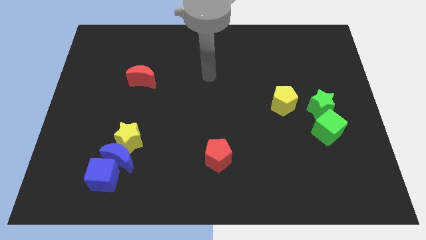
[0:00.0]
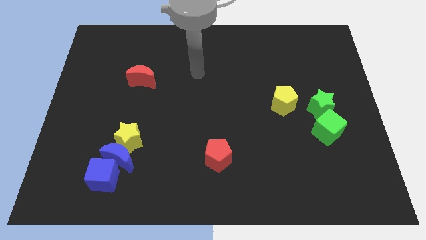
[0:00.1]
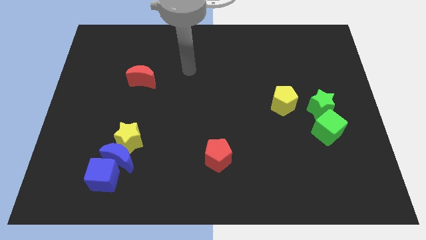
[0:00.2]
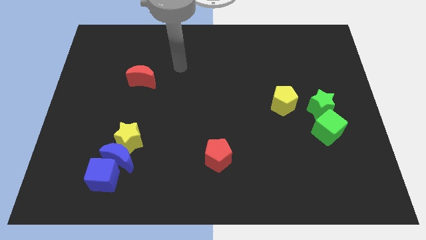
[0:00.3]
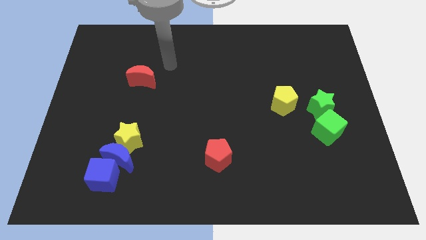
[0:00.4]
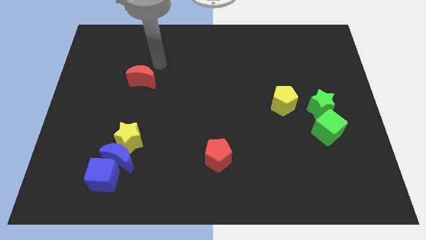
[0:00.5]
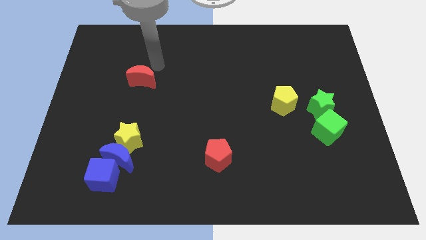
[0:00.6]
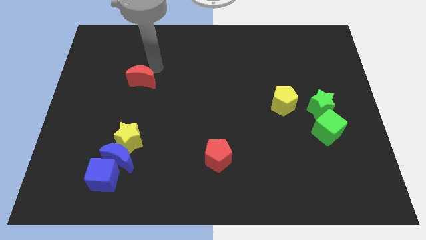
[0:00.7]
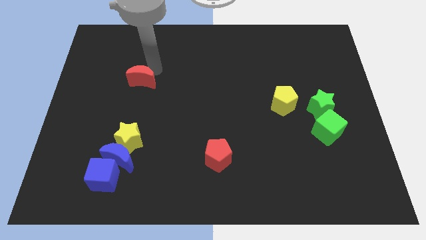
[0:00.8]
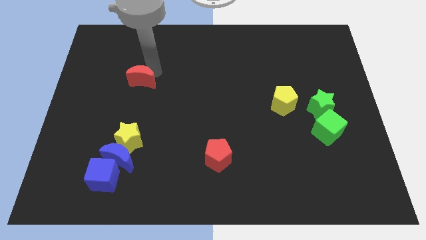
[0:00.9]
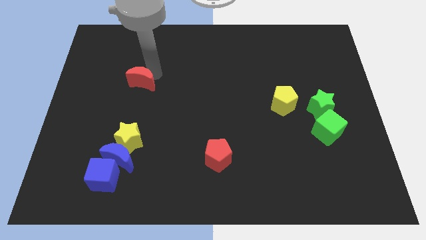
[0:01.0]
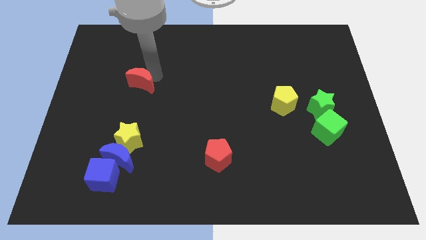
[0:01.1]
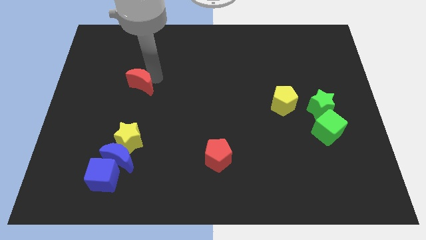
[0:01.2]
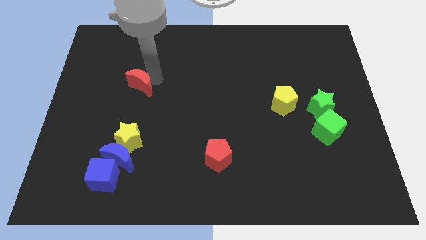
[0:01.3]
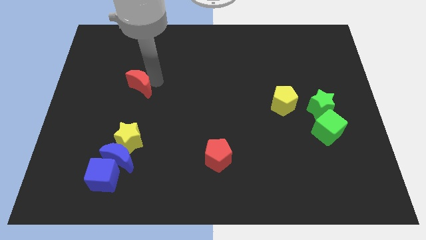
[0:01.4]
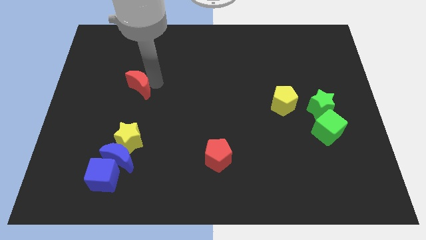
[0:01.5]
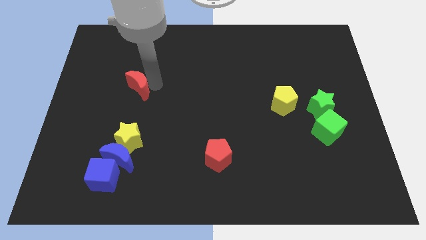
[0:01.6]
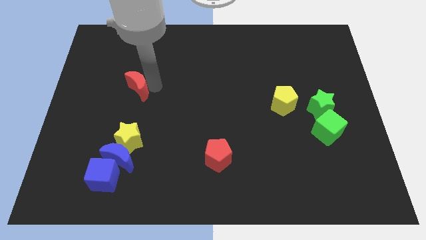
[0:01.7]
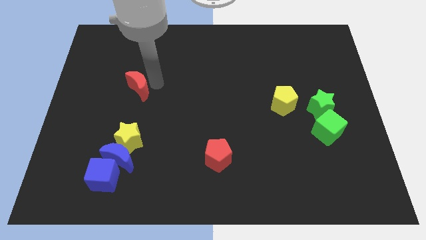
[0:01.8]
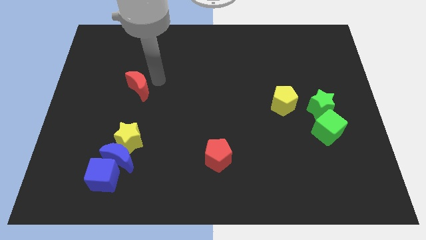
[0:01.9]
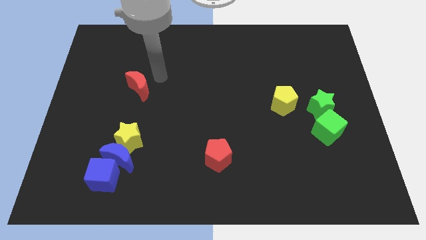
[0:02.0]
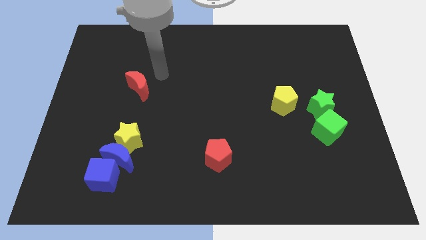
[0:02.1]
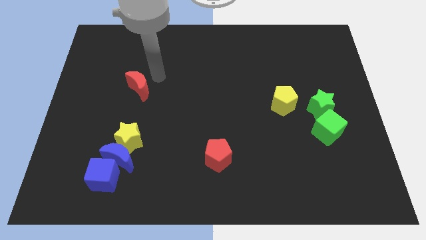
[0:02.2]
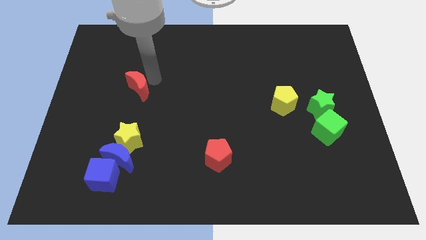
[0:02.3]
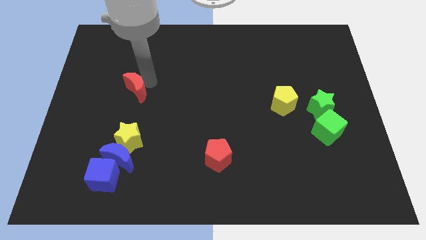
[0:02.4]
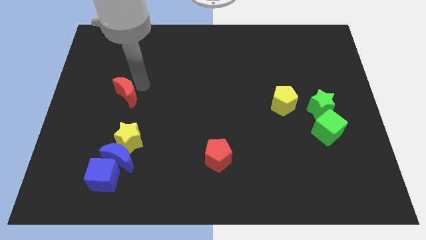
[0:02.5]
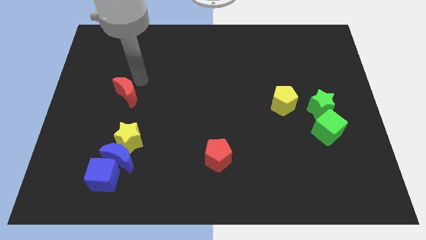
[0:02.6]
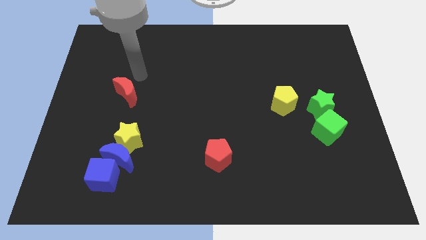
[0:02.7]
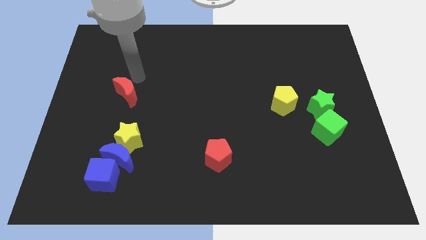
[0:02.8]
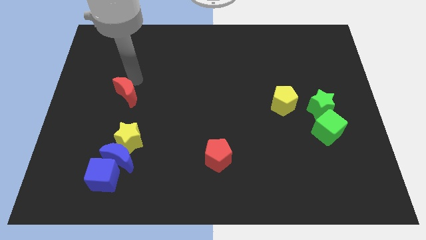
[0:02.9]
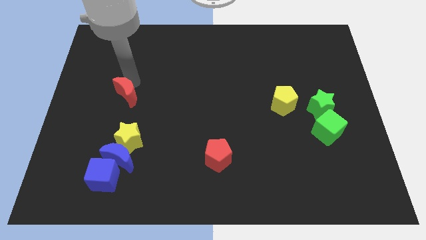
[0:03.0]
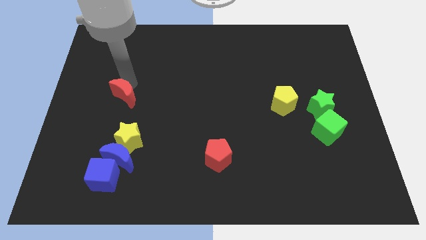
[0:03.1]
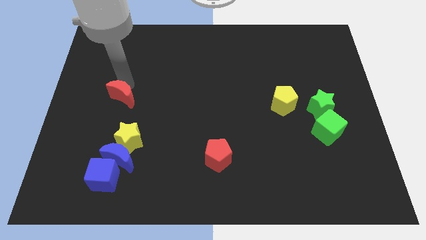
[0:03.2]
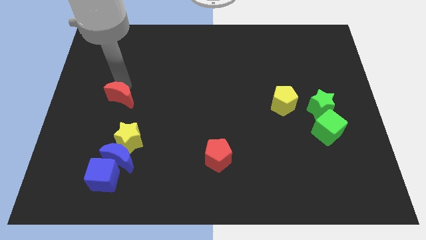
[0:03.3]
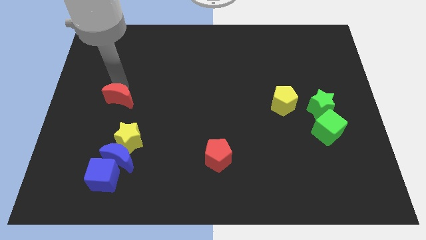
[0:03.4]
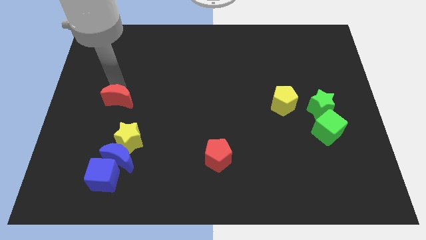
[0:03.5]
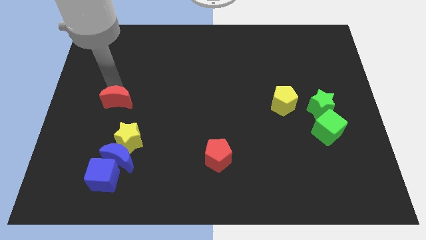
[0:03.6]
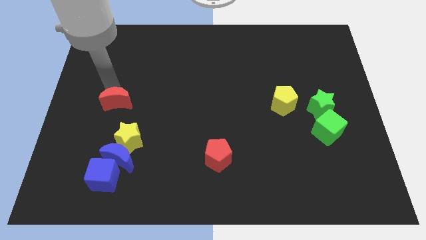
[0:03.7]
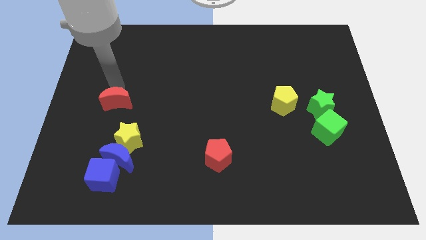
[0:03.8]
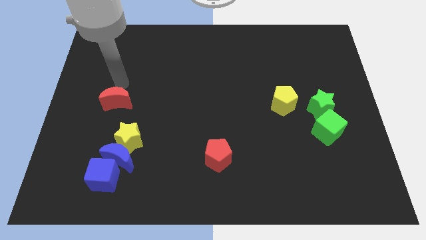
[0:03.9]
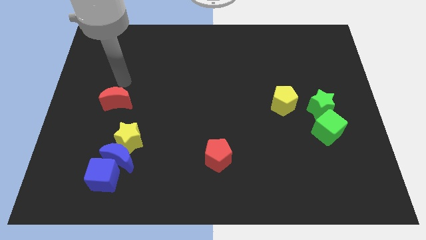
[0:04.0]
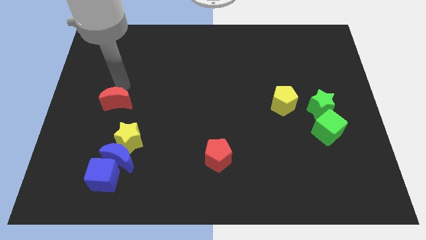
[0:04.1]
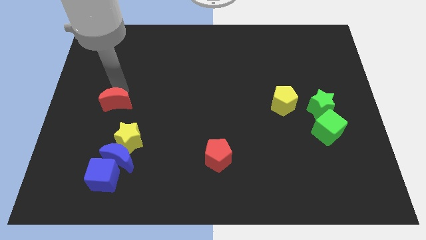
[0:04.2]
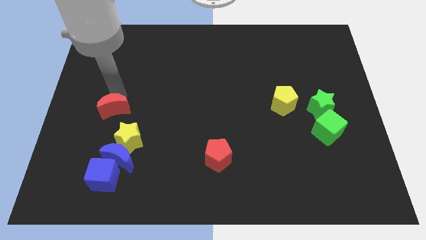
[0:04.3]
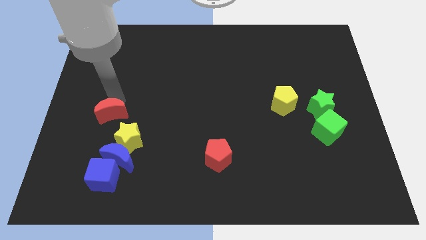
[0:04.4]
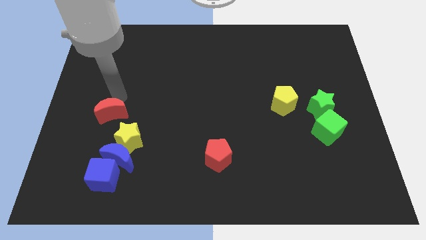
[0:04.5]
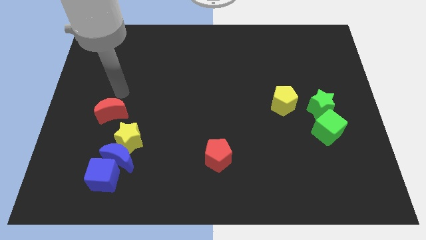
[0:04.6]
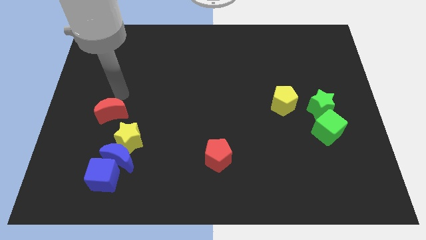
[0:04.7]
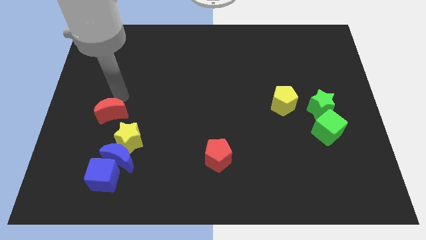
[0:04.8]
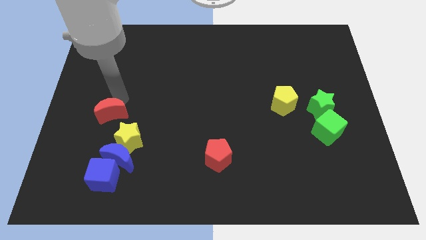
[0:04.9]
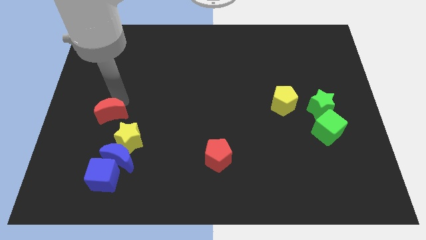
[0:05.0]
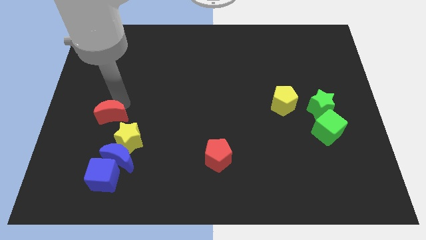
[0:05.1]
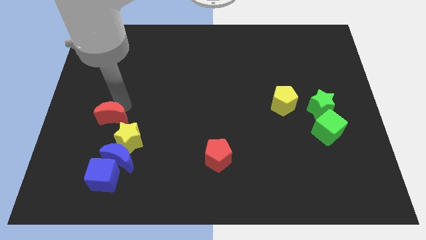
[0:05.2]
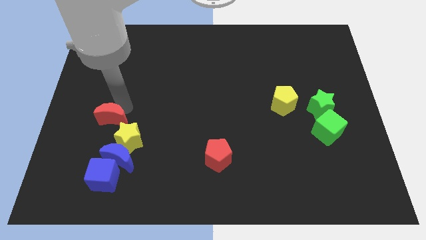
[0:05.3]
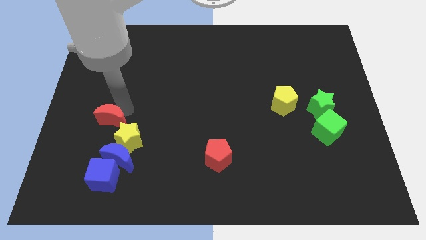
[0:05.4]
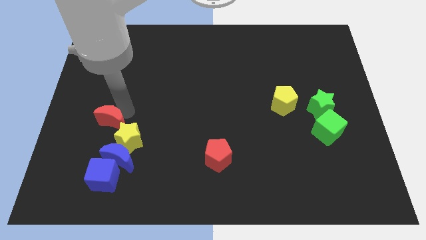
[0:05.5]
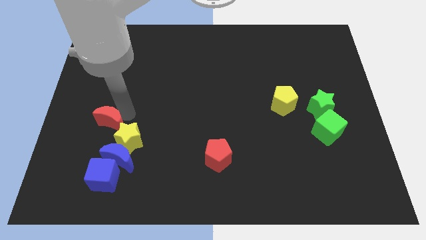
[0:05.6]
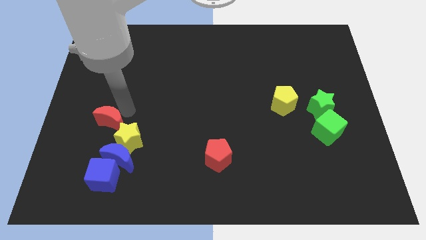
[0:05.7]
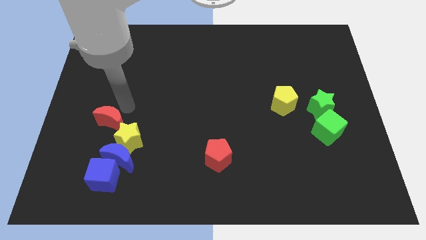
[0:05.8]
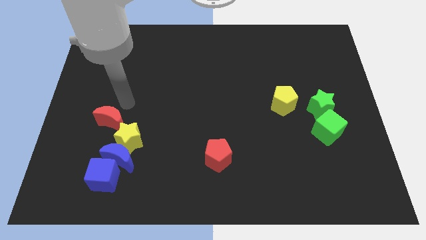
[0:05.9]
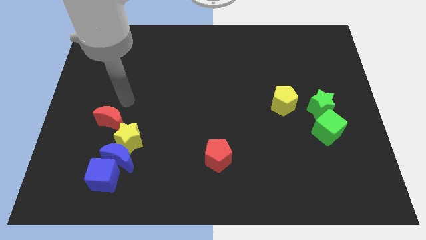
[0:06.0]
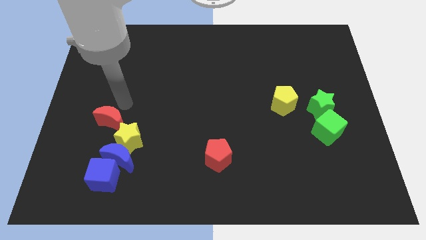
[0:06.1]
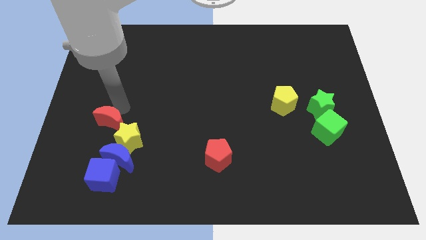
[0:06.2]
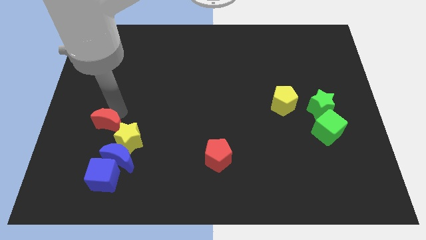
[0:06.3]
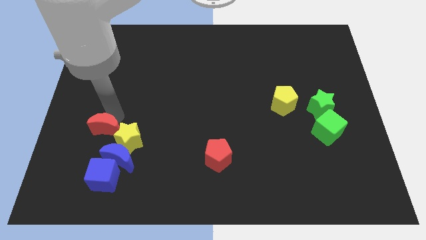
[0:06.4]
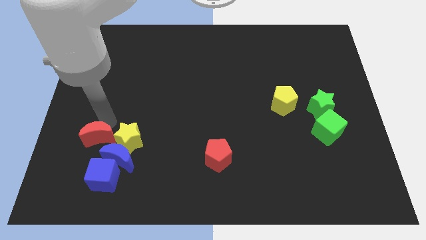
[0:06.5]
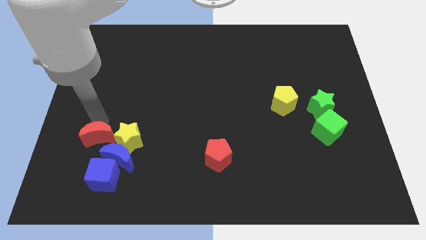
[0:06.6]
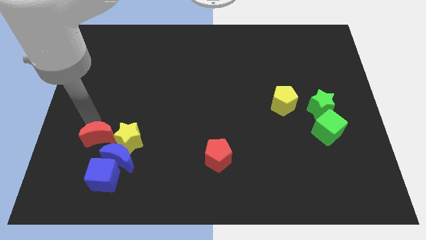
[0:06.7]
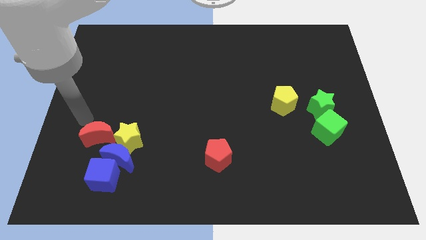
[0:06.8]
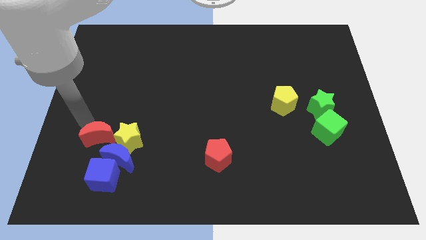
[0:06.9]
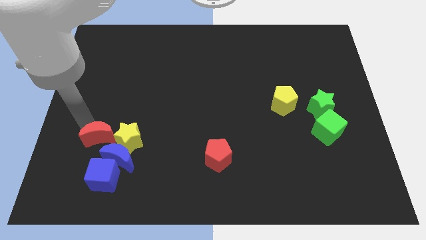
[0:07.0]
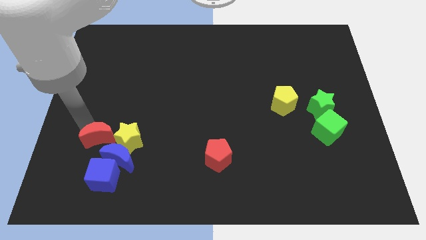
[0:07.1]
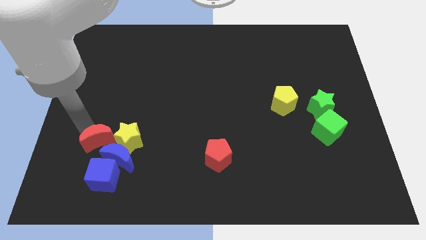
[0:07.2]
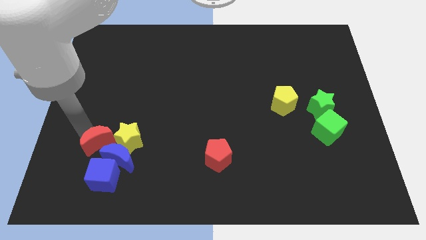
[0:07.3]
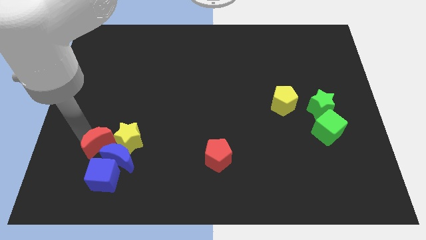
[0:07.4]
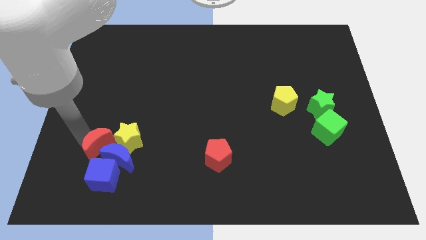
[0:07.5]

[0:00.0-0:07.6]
move the red moon towards the blue moon
